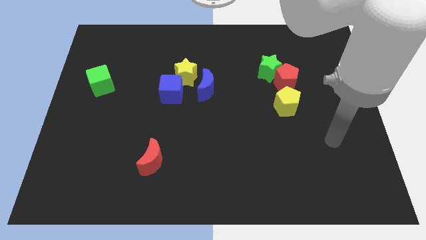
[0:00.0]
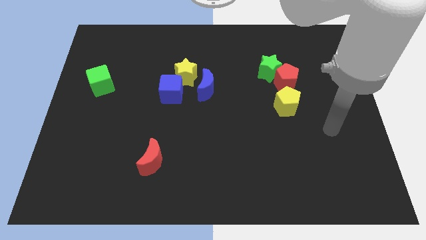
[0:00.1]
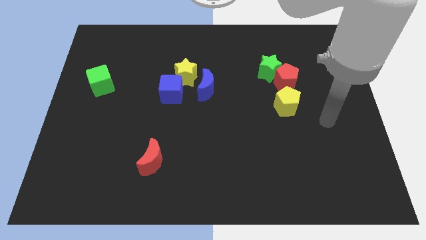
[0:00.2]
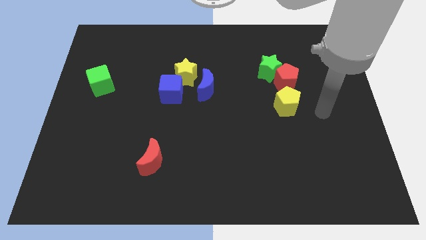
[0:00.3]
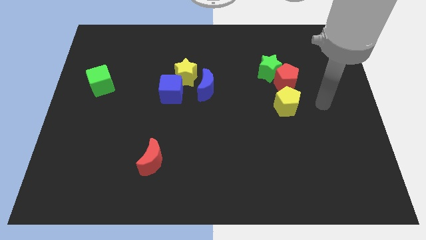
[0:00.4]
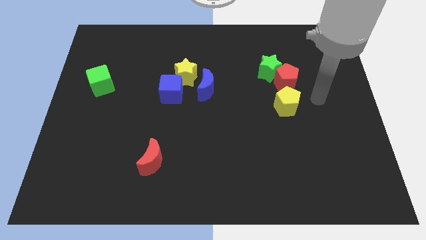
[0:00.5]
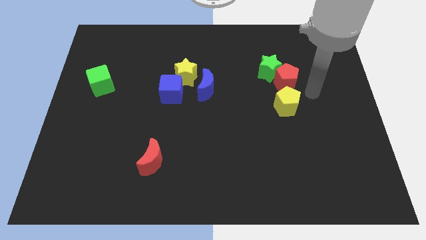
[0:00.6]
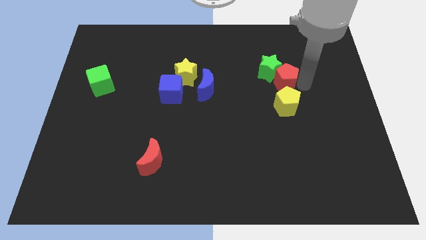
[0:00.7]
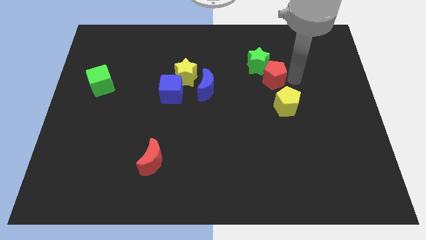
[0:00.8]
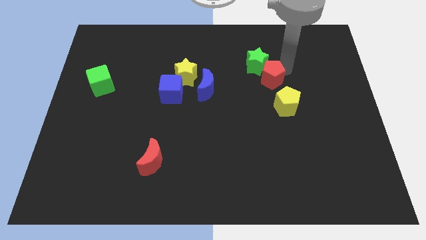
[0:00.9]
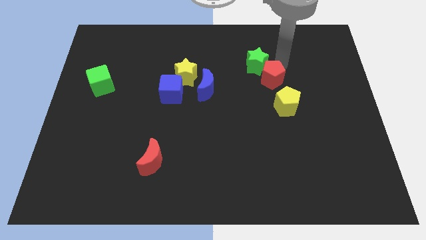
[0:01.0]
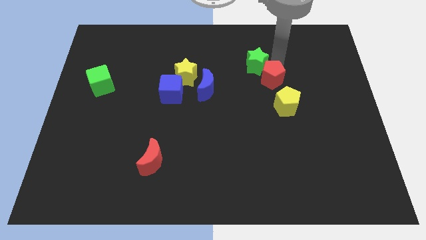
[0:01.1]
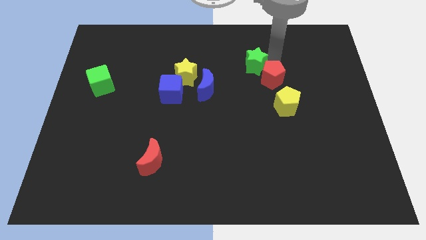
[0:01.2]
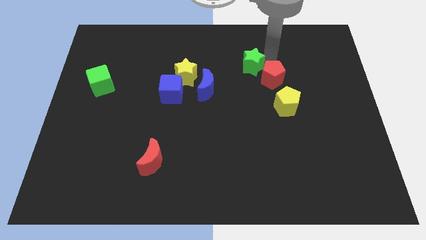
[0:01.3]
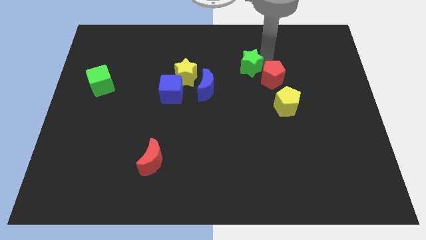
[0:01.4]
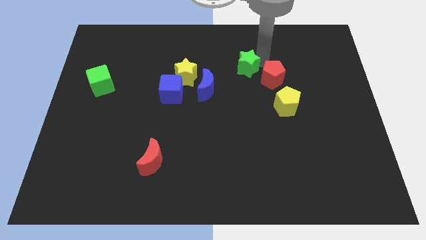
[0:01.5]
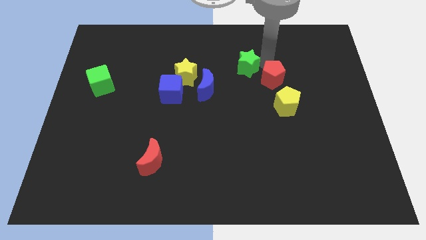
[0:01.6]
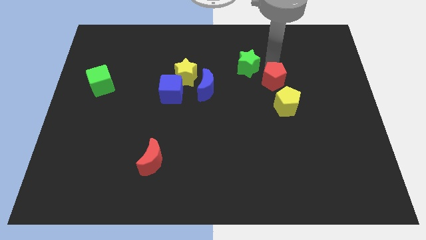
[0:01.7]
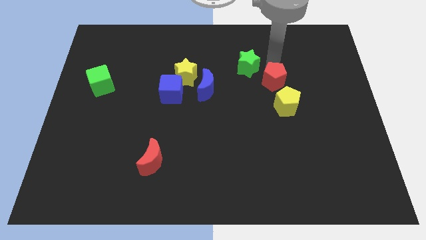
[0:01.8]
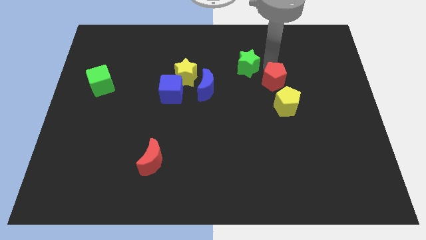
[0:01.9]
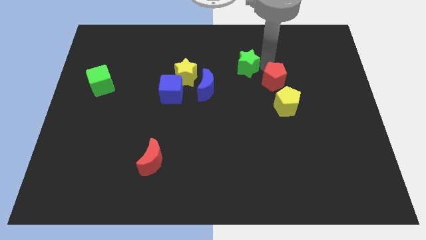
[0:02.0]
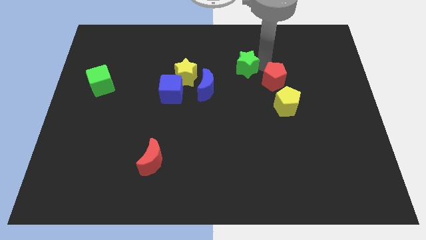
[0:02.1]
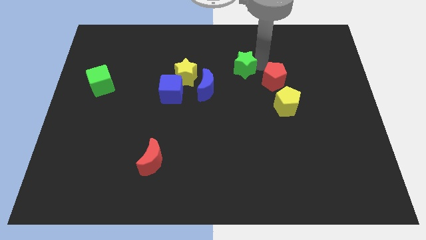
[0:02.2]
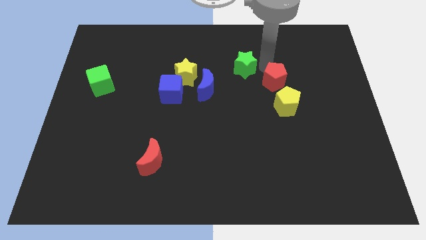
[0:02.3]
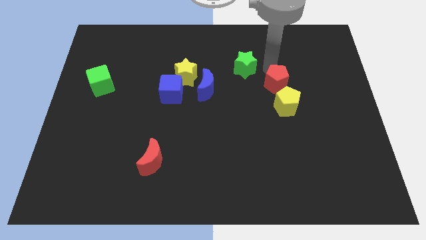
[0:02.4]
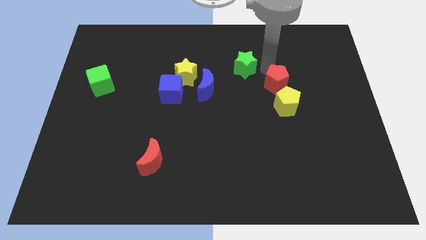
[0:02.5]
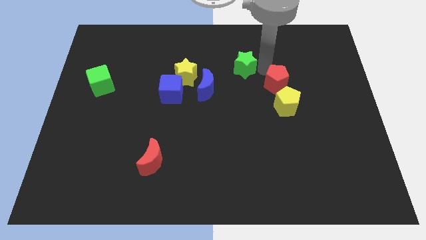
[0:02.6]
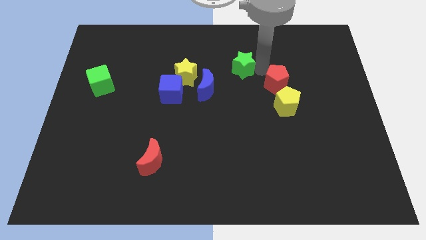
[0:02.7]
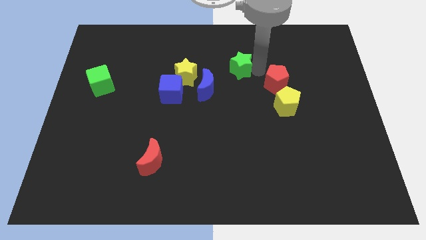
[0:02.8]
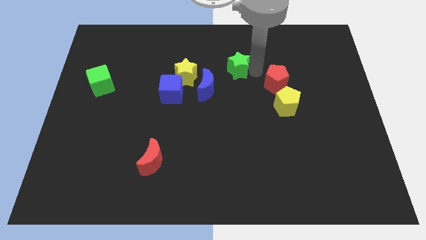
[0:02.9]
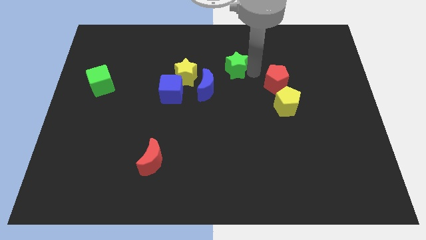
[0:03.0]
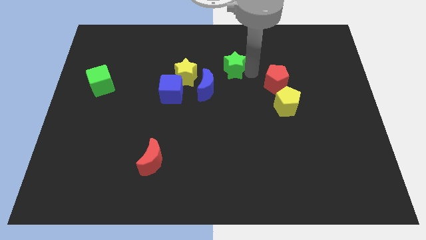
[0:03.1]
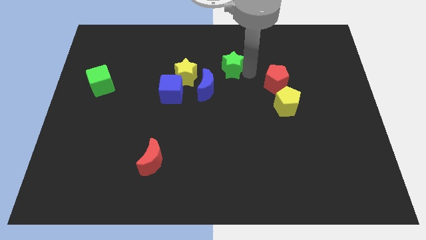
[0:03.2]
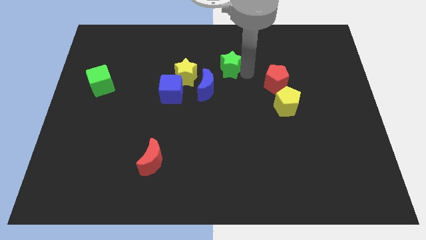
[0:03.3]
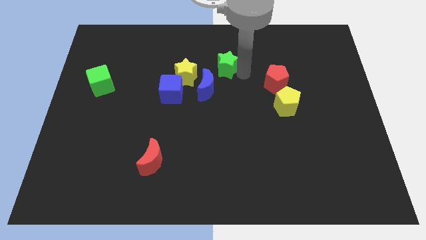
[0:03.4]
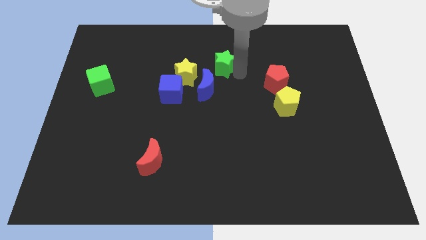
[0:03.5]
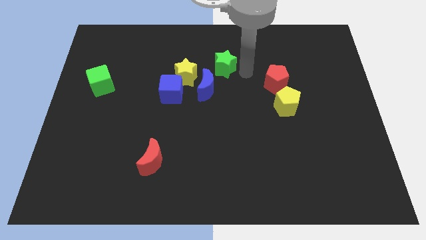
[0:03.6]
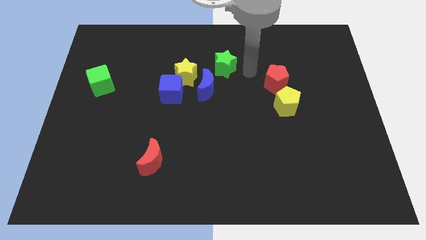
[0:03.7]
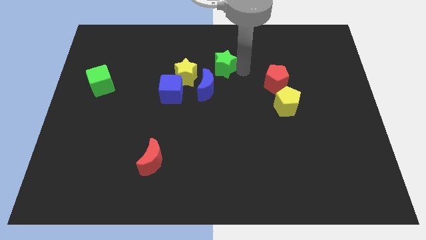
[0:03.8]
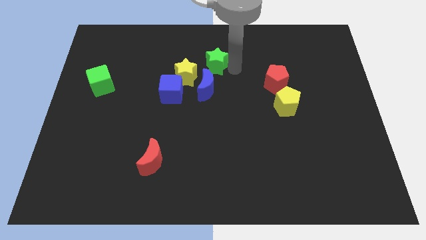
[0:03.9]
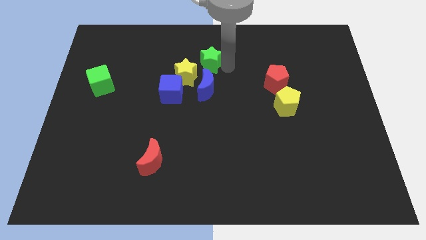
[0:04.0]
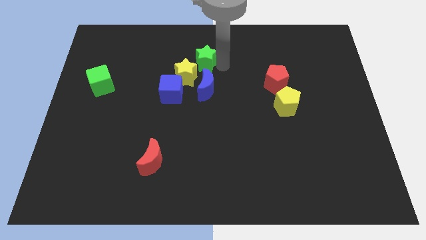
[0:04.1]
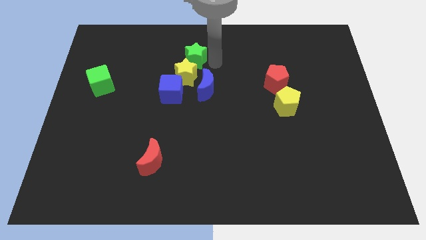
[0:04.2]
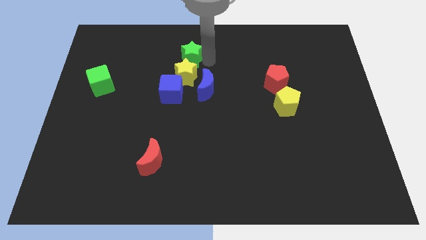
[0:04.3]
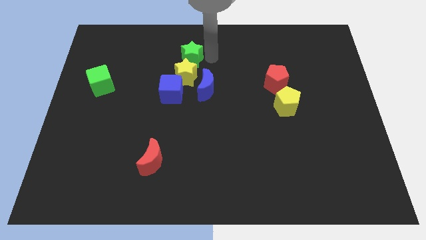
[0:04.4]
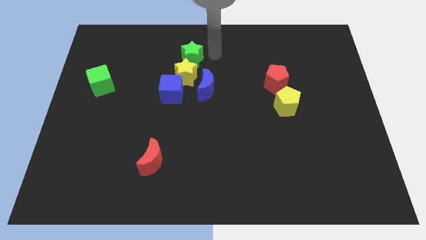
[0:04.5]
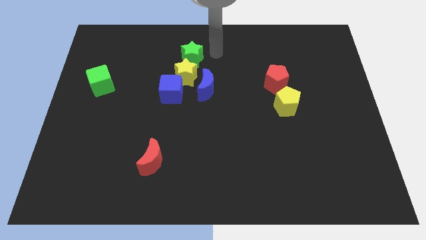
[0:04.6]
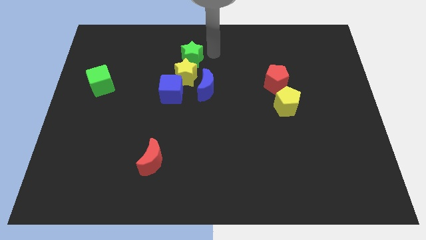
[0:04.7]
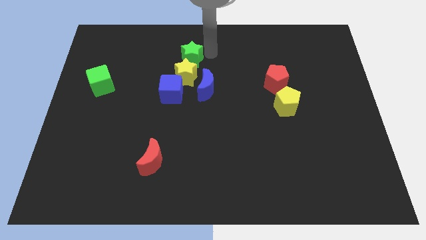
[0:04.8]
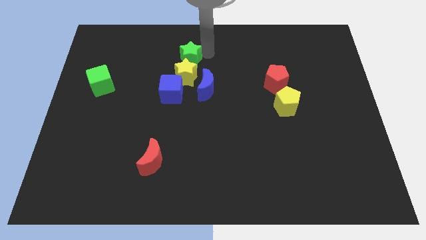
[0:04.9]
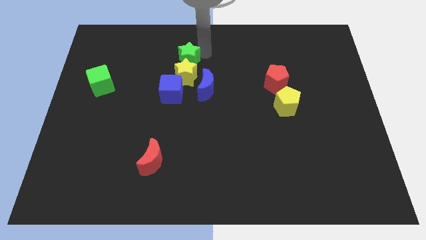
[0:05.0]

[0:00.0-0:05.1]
slide the green star to the left

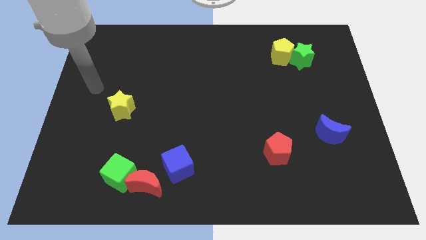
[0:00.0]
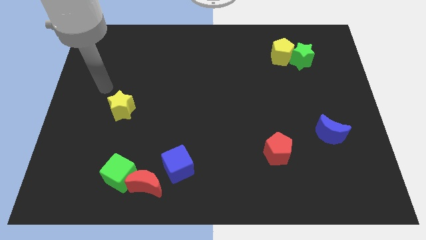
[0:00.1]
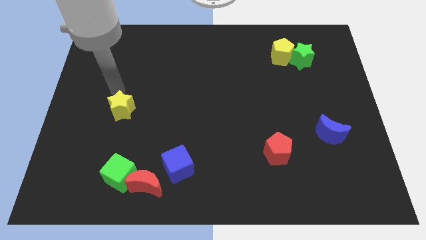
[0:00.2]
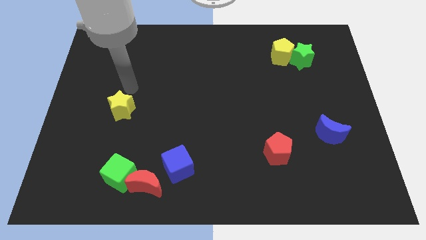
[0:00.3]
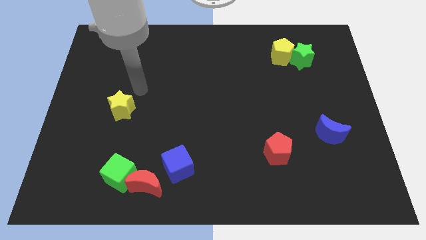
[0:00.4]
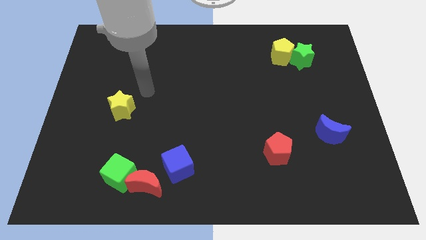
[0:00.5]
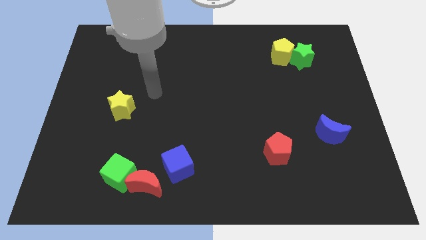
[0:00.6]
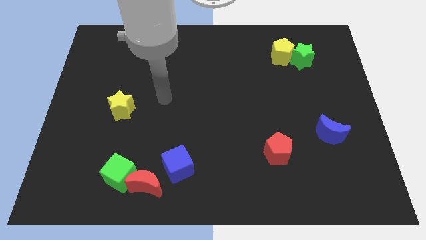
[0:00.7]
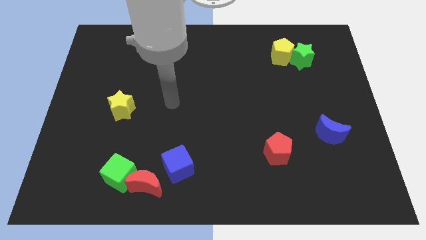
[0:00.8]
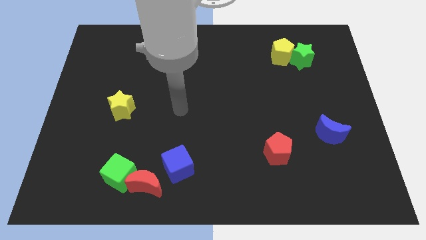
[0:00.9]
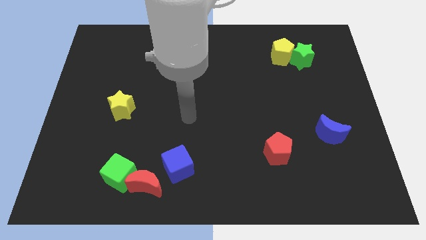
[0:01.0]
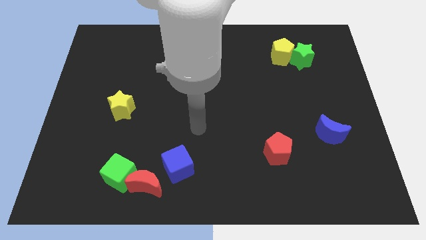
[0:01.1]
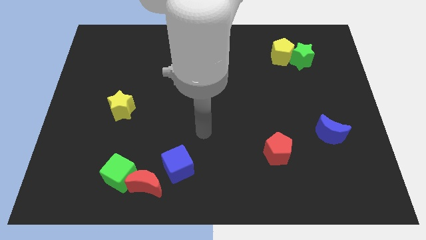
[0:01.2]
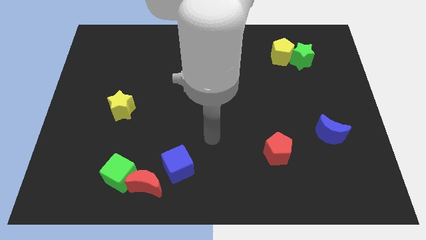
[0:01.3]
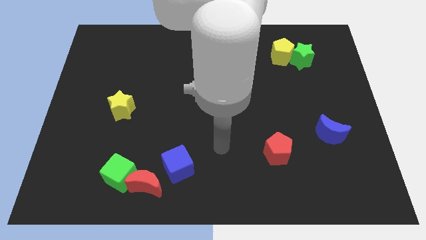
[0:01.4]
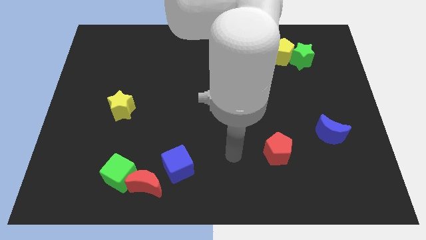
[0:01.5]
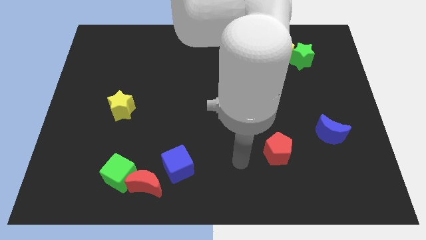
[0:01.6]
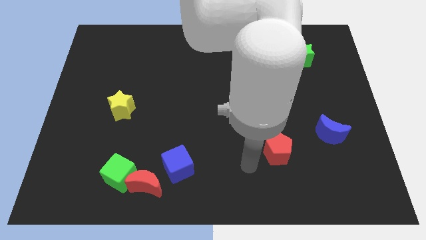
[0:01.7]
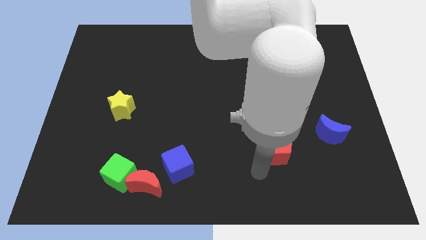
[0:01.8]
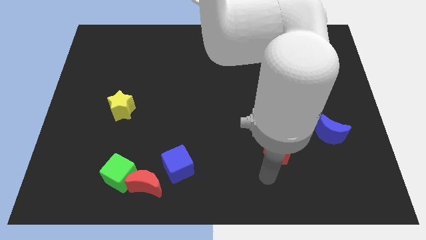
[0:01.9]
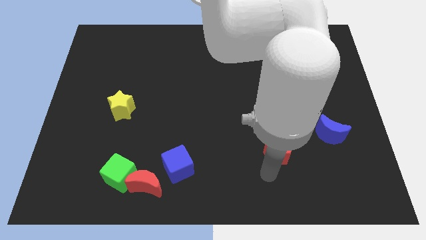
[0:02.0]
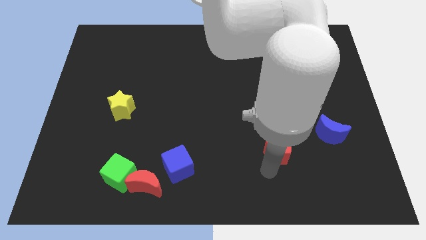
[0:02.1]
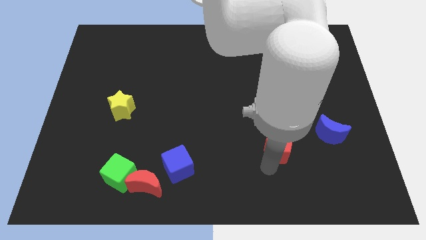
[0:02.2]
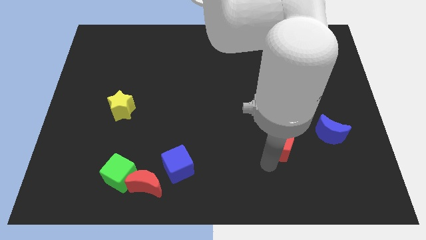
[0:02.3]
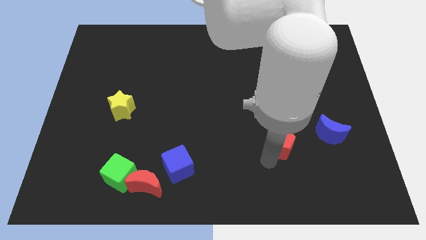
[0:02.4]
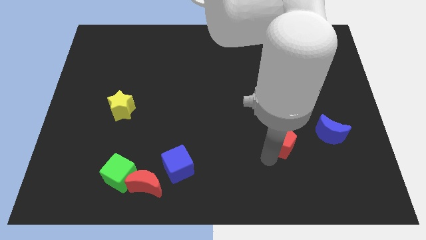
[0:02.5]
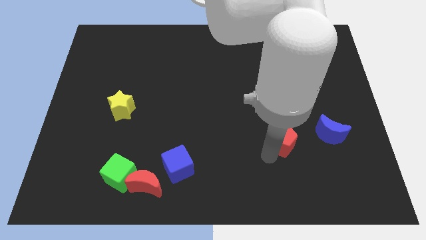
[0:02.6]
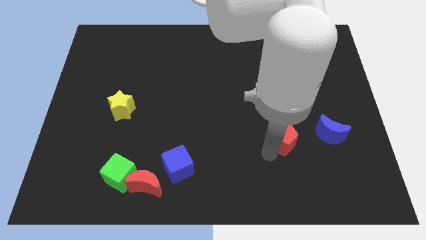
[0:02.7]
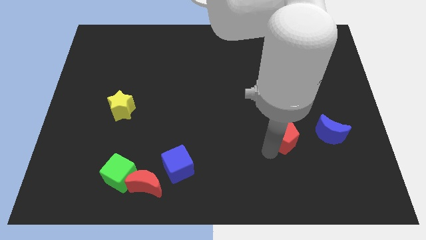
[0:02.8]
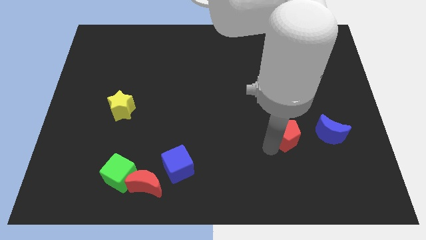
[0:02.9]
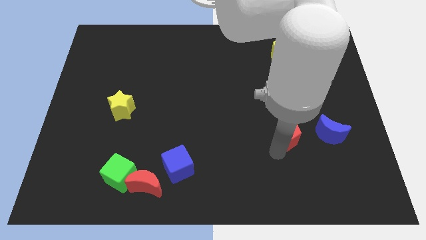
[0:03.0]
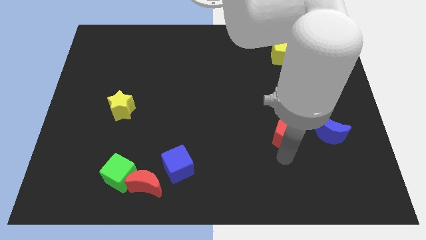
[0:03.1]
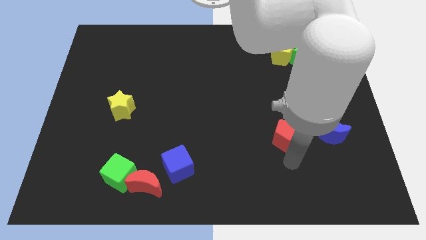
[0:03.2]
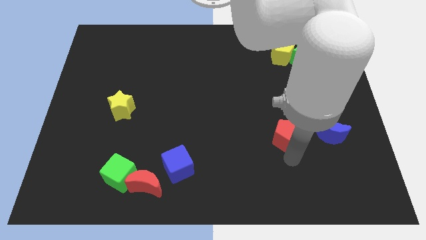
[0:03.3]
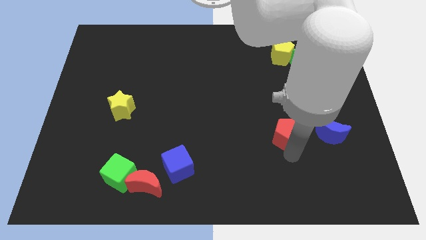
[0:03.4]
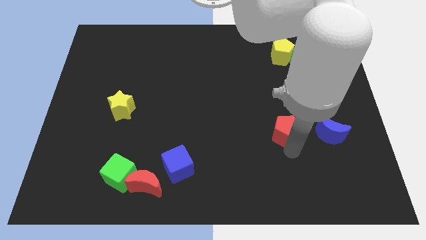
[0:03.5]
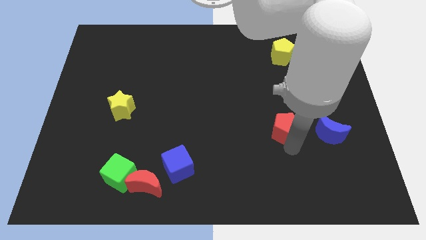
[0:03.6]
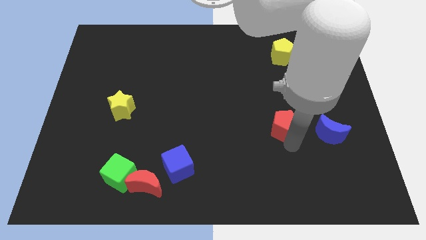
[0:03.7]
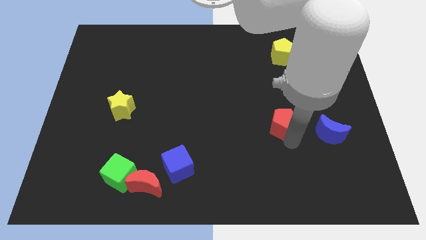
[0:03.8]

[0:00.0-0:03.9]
slightly move the red pentagon upwards
